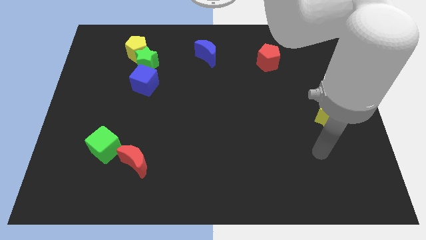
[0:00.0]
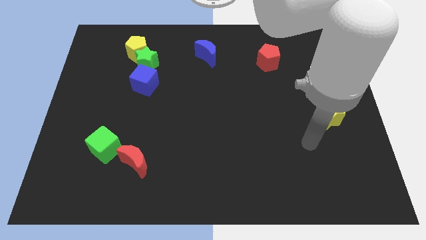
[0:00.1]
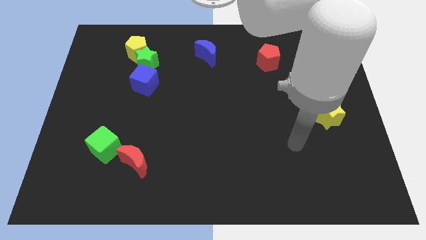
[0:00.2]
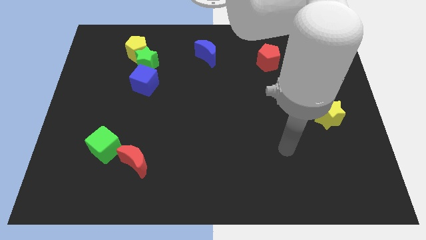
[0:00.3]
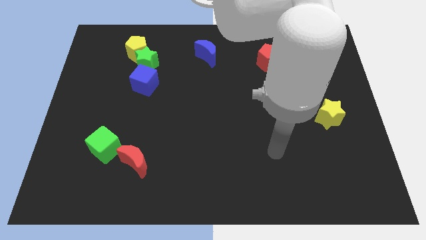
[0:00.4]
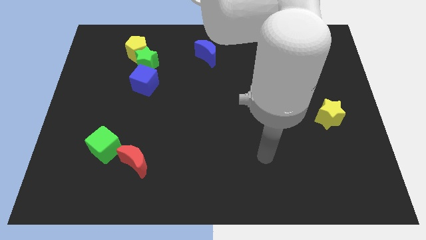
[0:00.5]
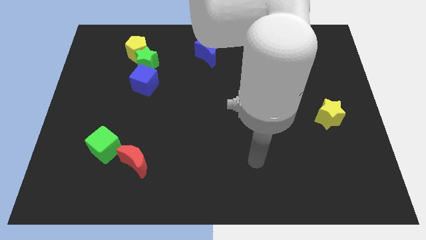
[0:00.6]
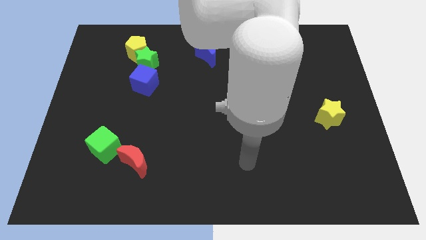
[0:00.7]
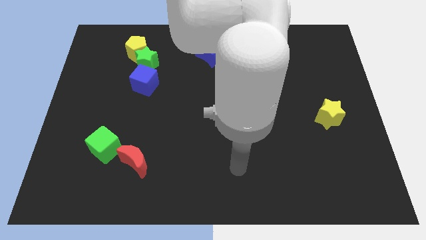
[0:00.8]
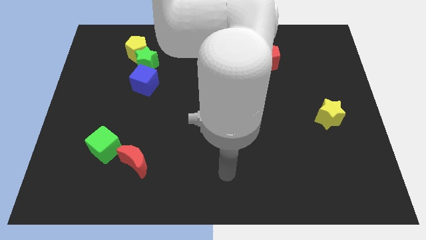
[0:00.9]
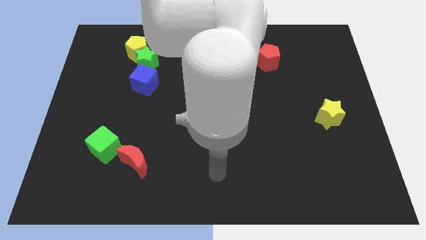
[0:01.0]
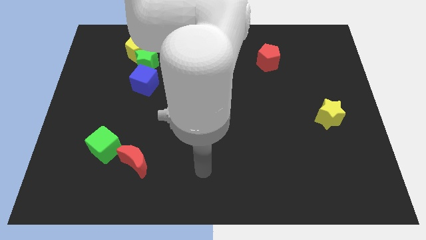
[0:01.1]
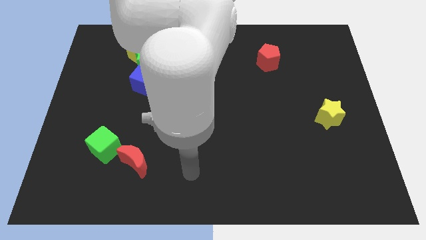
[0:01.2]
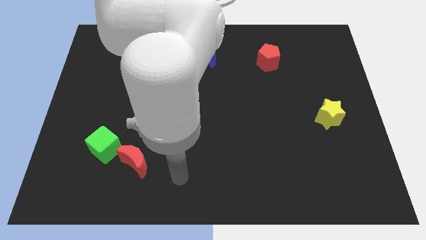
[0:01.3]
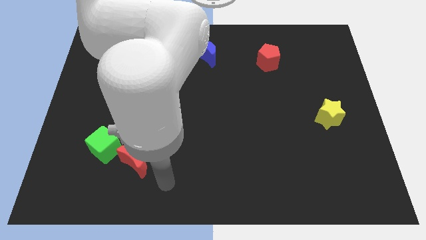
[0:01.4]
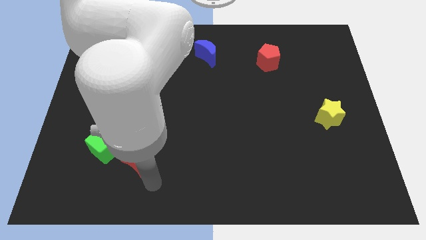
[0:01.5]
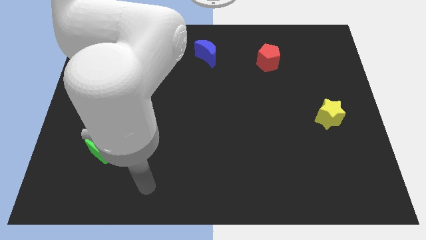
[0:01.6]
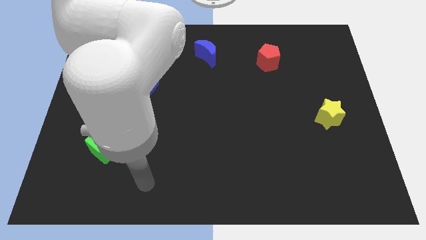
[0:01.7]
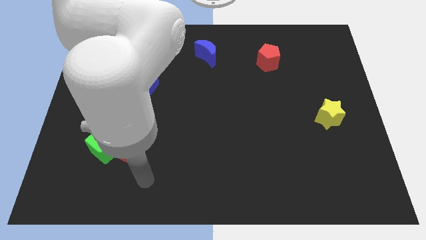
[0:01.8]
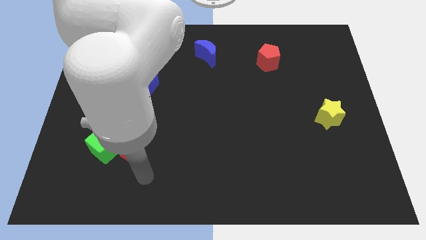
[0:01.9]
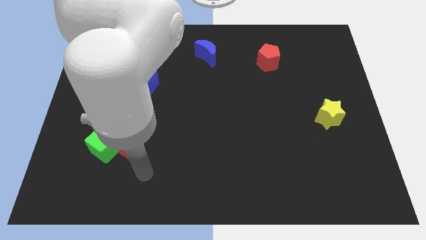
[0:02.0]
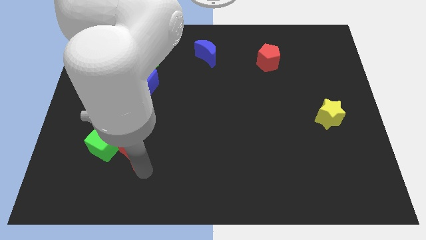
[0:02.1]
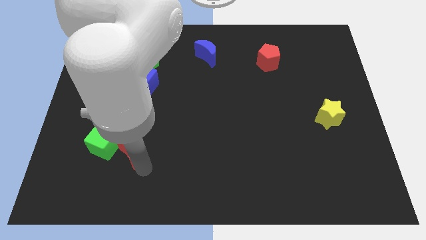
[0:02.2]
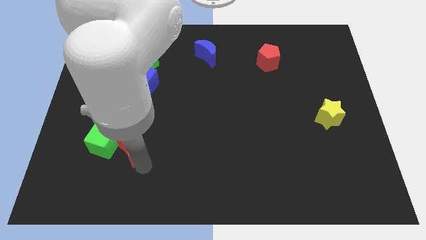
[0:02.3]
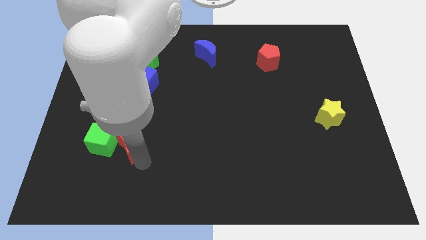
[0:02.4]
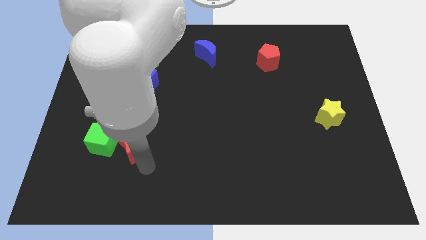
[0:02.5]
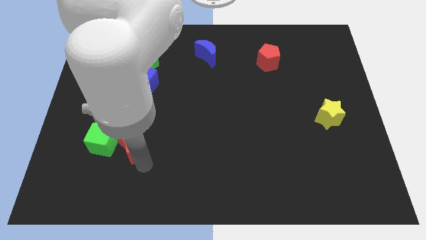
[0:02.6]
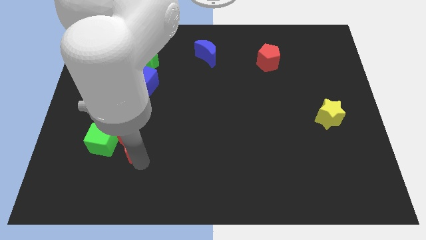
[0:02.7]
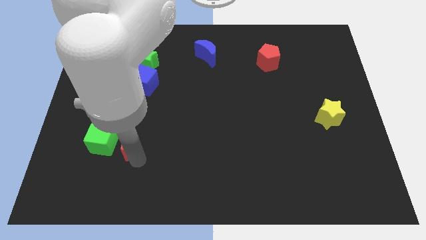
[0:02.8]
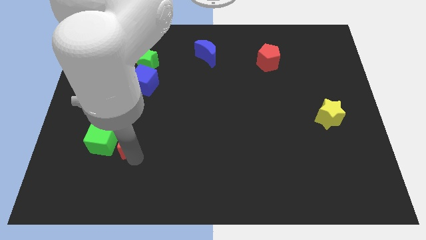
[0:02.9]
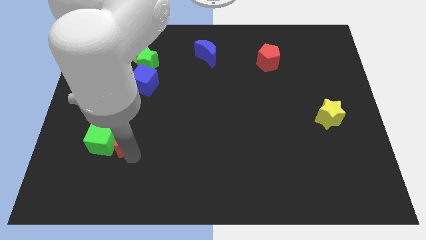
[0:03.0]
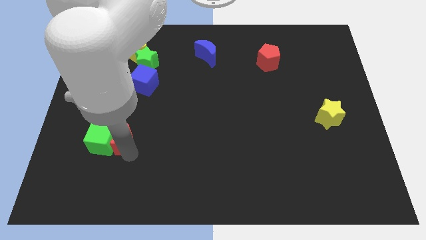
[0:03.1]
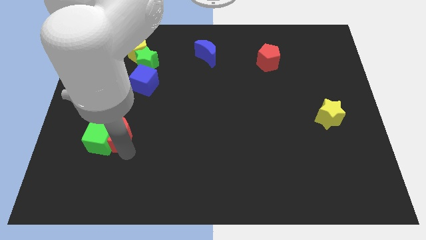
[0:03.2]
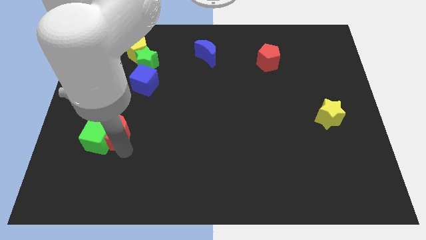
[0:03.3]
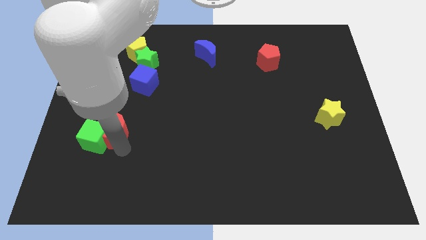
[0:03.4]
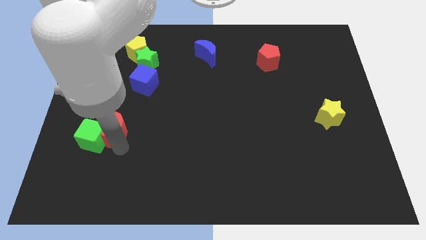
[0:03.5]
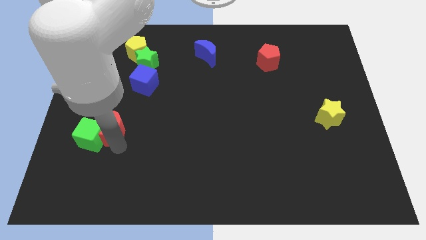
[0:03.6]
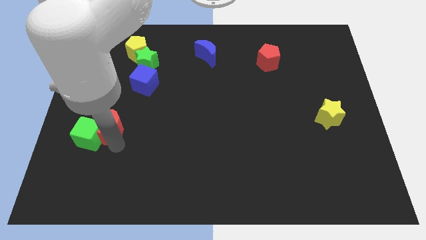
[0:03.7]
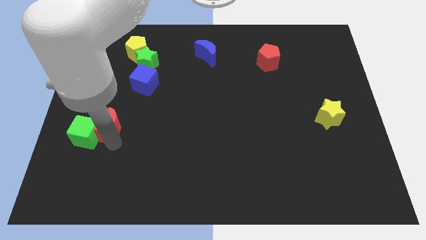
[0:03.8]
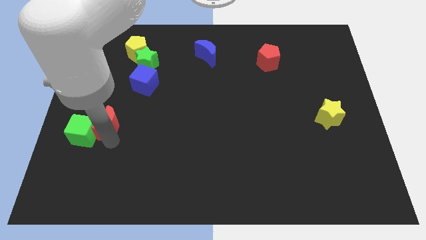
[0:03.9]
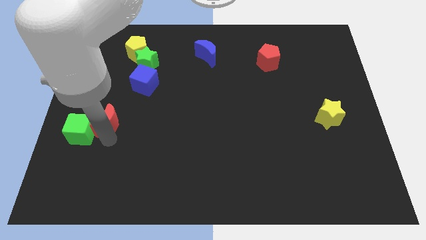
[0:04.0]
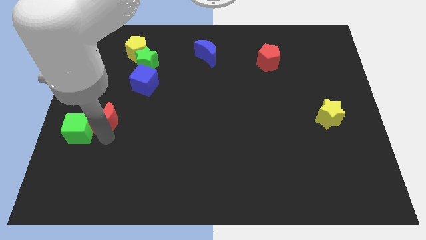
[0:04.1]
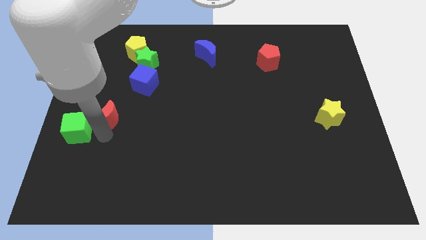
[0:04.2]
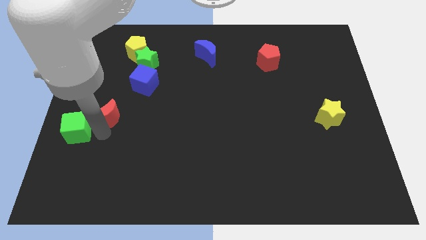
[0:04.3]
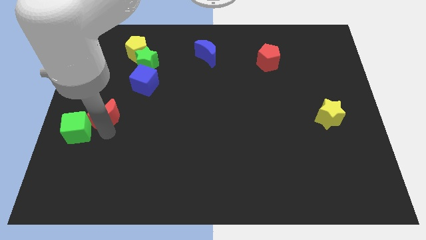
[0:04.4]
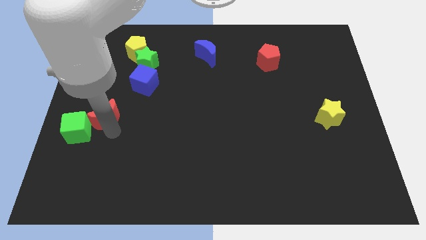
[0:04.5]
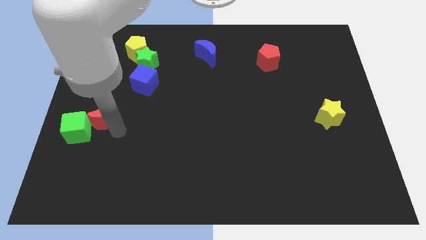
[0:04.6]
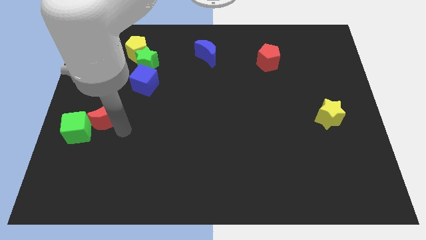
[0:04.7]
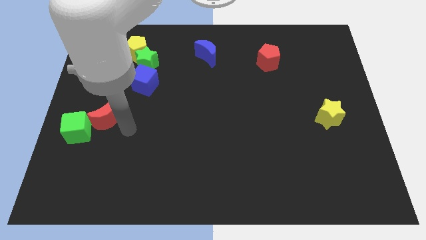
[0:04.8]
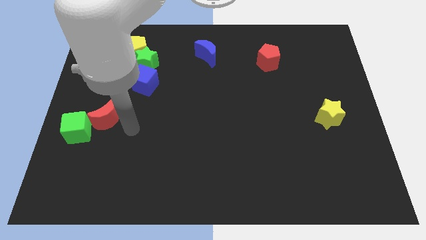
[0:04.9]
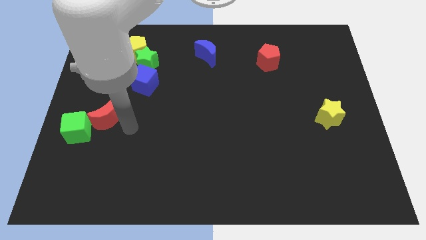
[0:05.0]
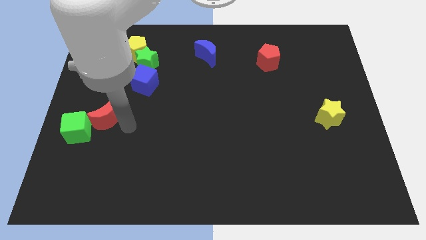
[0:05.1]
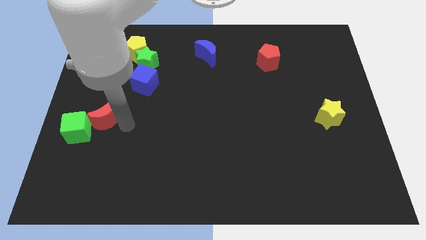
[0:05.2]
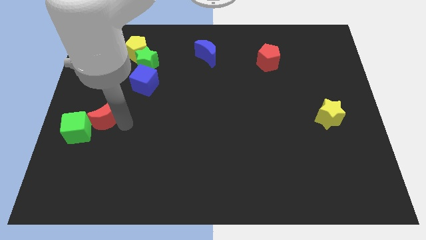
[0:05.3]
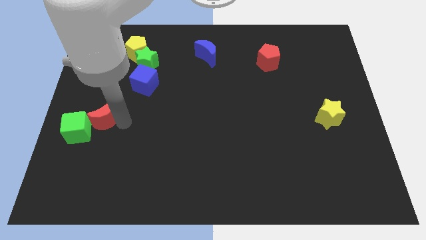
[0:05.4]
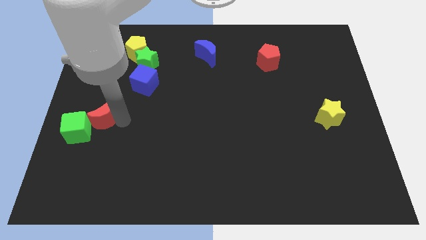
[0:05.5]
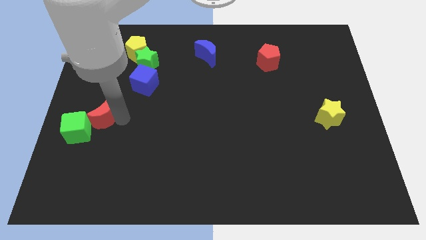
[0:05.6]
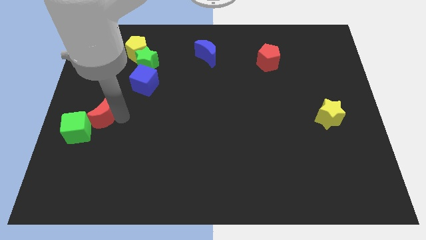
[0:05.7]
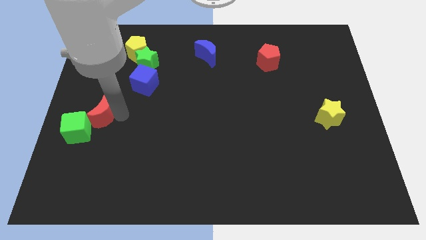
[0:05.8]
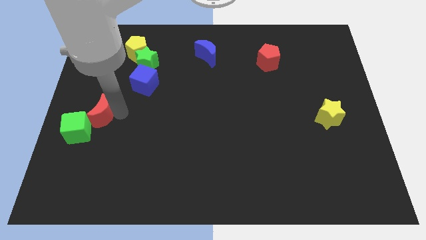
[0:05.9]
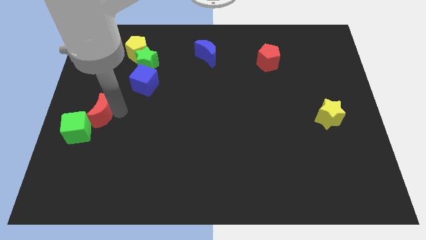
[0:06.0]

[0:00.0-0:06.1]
put the red moon to the center left

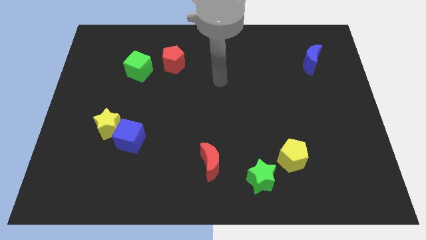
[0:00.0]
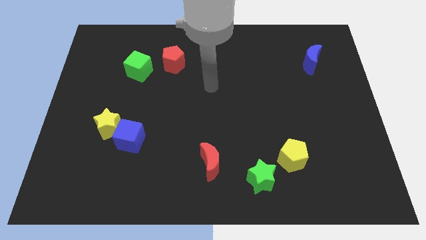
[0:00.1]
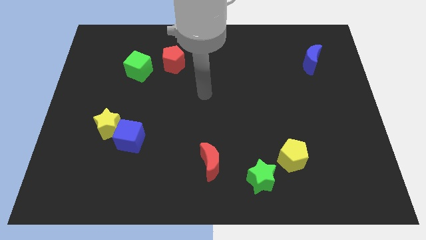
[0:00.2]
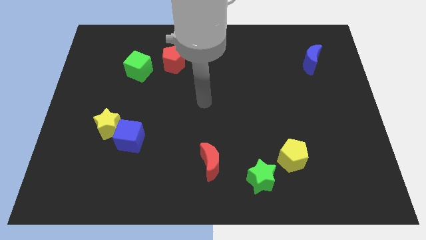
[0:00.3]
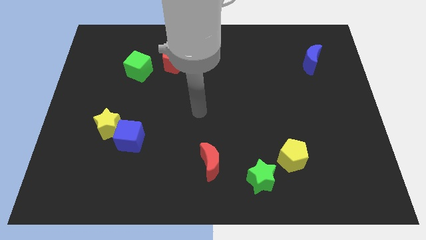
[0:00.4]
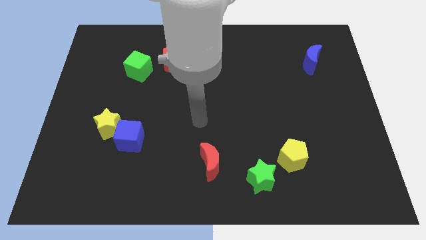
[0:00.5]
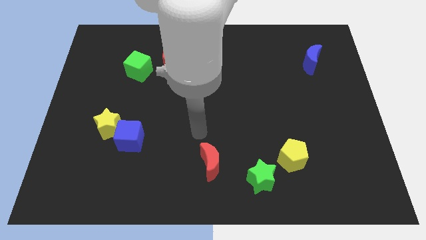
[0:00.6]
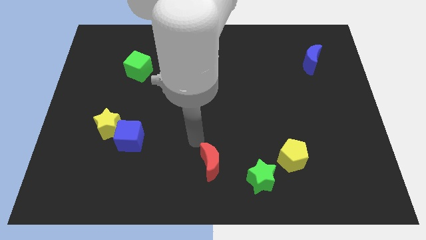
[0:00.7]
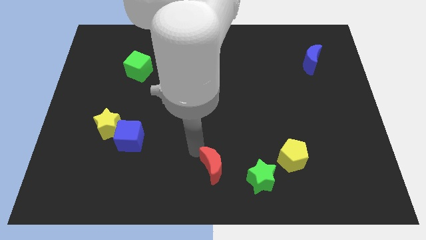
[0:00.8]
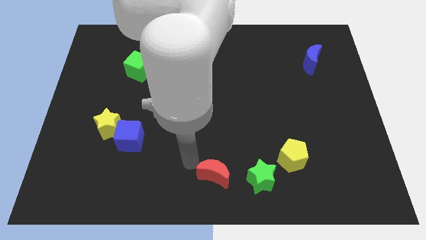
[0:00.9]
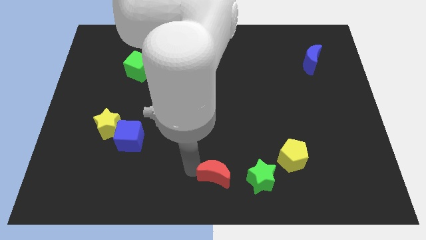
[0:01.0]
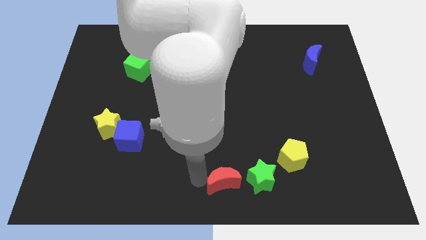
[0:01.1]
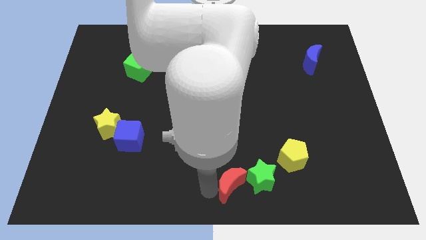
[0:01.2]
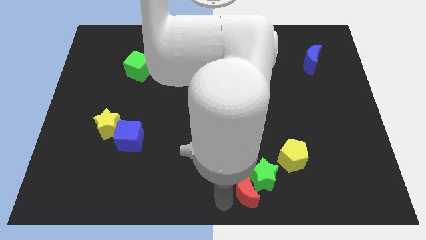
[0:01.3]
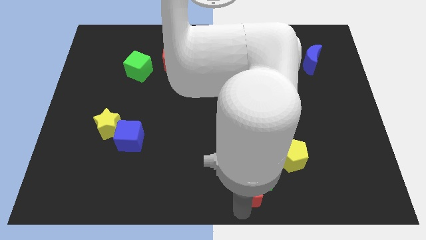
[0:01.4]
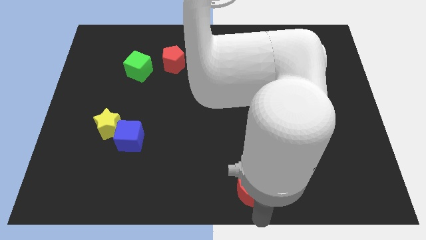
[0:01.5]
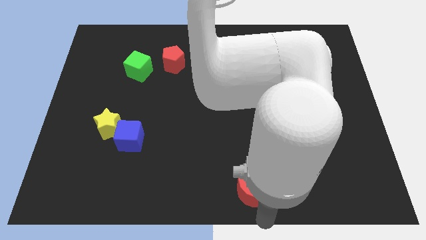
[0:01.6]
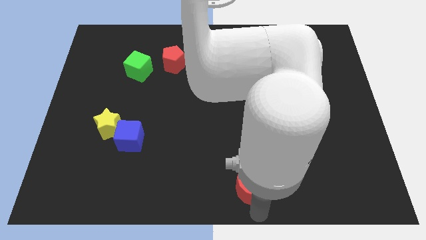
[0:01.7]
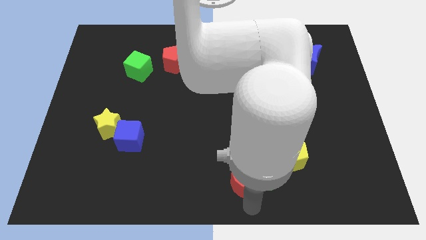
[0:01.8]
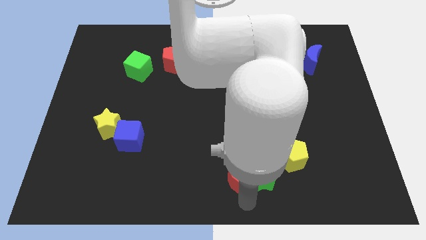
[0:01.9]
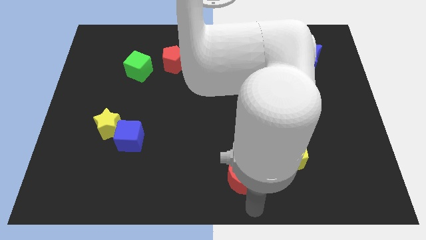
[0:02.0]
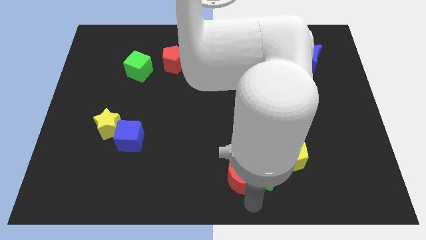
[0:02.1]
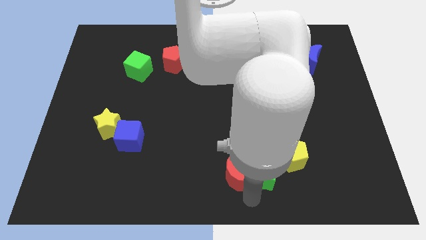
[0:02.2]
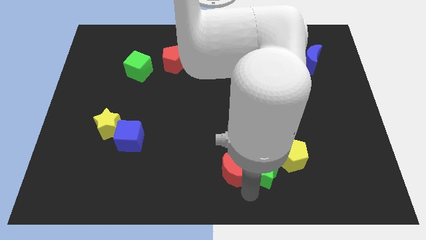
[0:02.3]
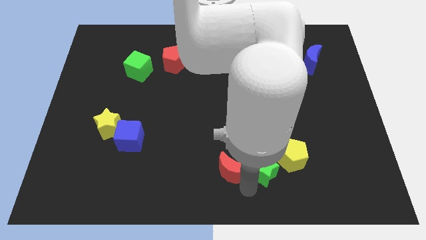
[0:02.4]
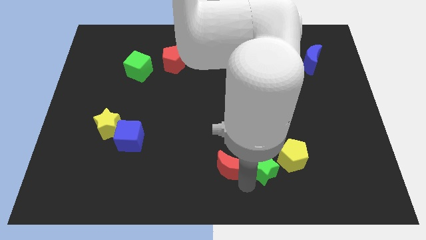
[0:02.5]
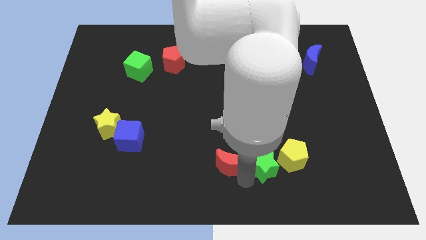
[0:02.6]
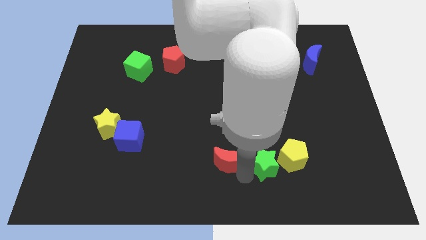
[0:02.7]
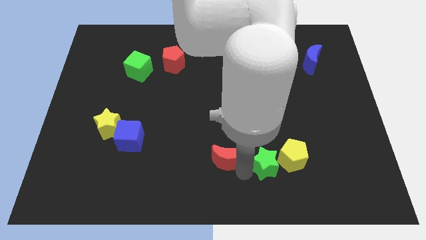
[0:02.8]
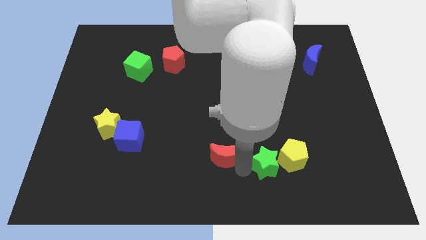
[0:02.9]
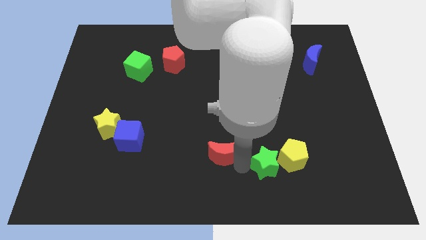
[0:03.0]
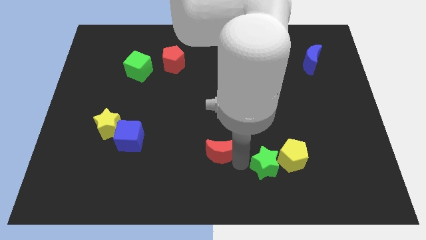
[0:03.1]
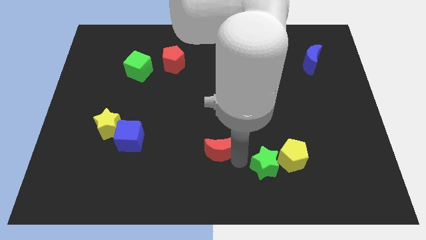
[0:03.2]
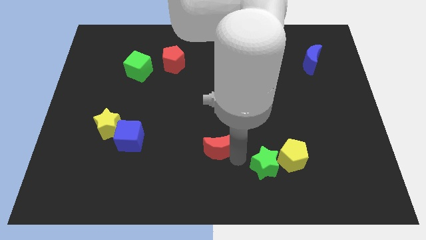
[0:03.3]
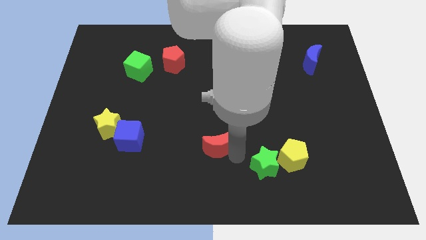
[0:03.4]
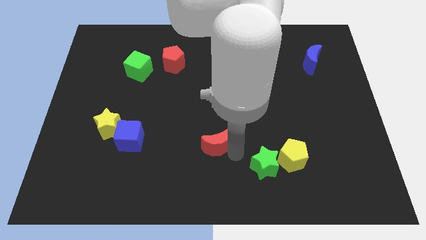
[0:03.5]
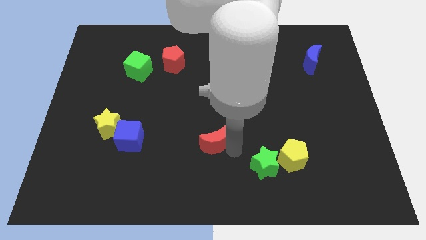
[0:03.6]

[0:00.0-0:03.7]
move the red moon to the center of the board
